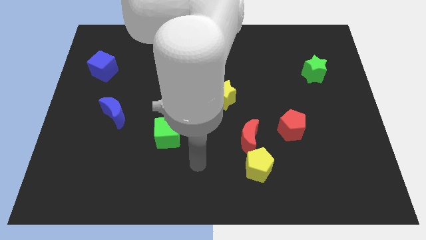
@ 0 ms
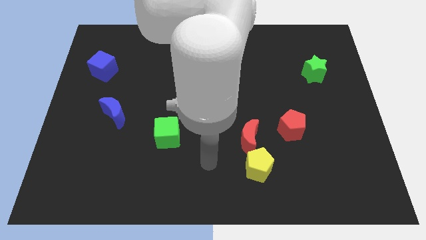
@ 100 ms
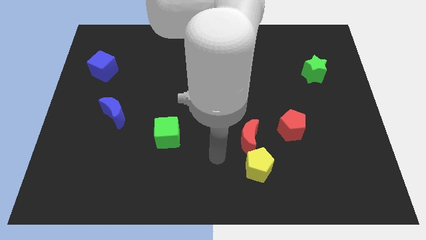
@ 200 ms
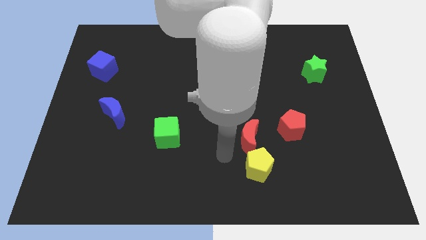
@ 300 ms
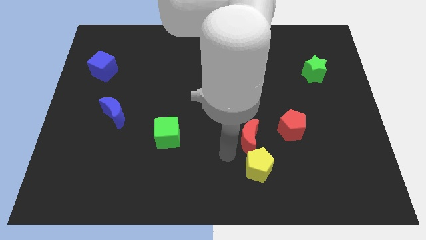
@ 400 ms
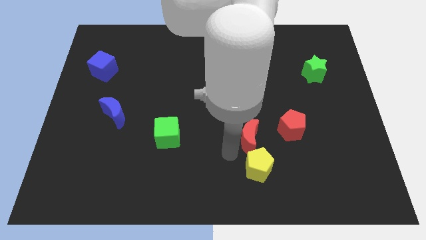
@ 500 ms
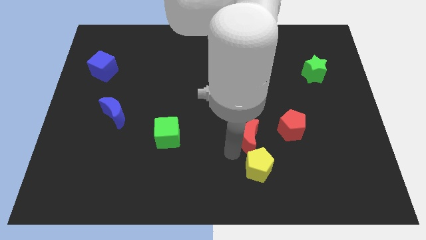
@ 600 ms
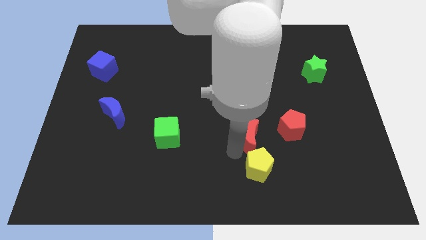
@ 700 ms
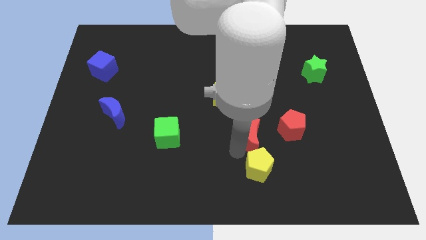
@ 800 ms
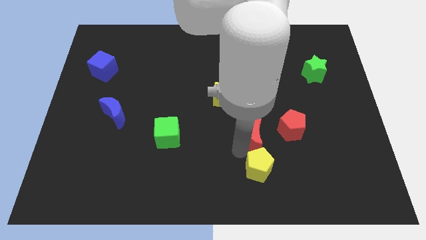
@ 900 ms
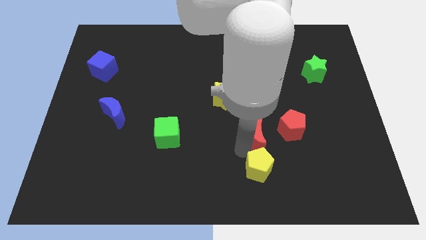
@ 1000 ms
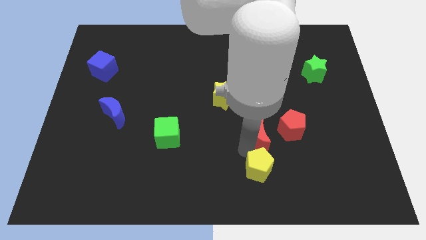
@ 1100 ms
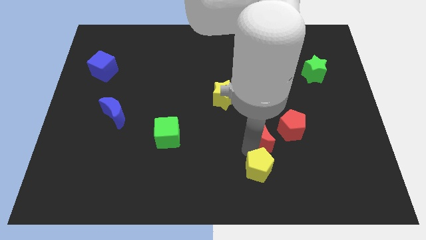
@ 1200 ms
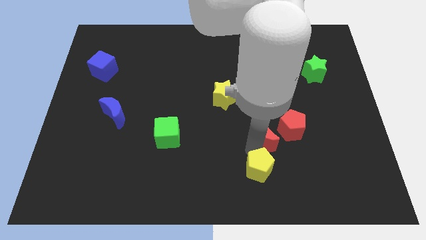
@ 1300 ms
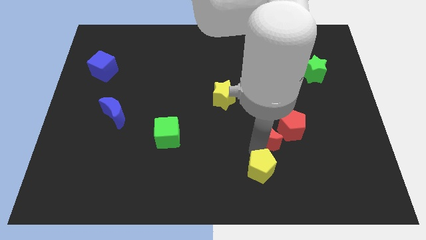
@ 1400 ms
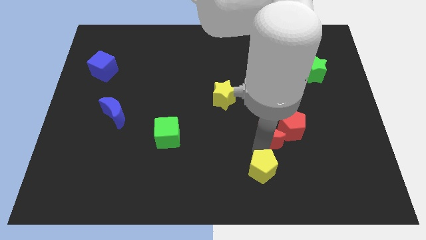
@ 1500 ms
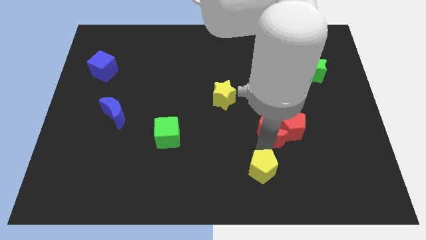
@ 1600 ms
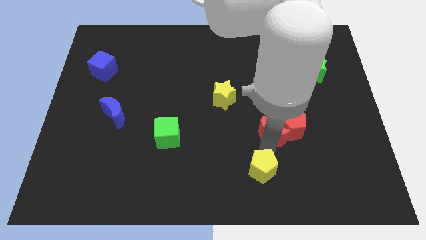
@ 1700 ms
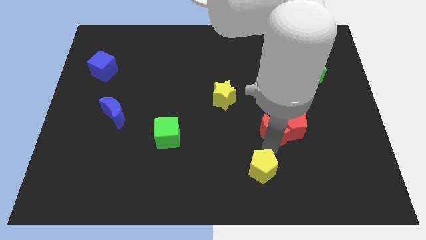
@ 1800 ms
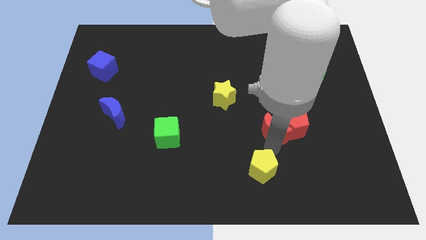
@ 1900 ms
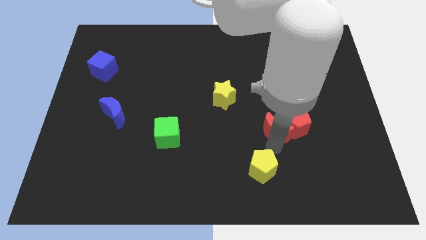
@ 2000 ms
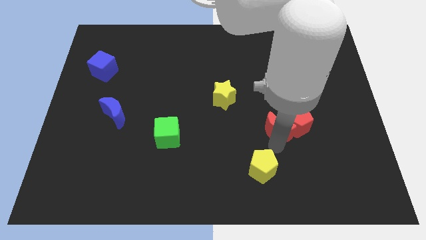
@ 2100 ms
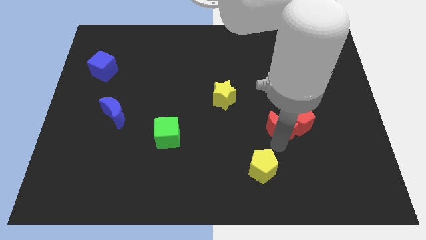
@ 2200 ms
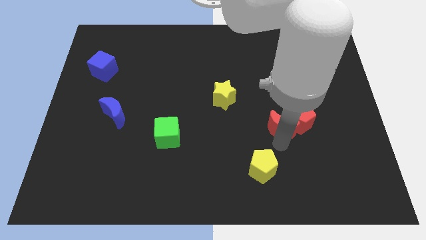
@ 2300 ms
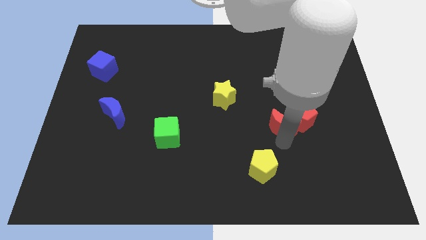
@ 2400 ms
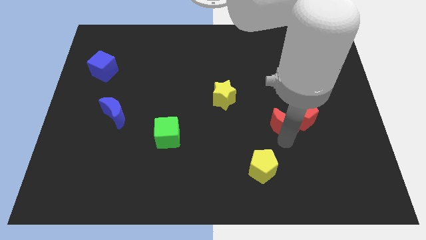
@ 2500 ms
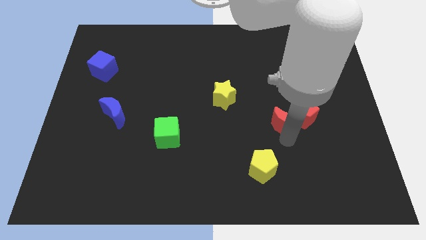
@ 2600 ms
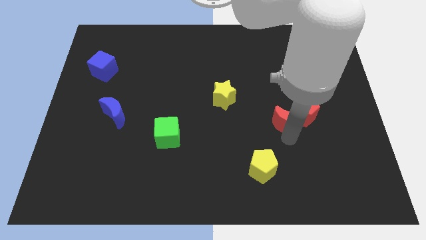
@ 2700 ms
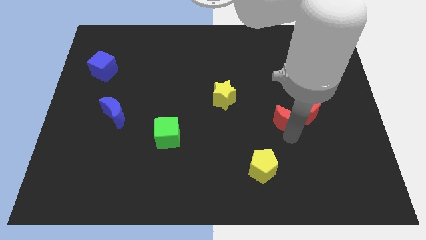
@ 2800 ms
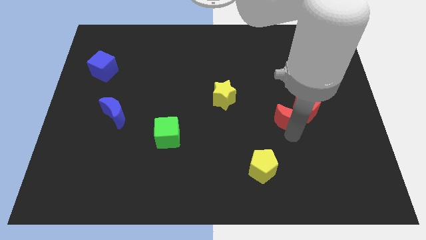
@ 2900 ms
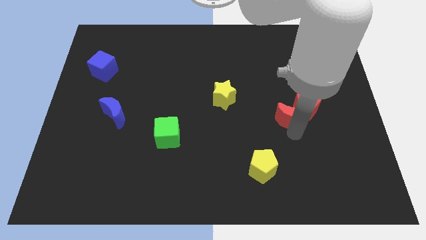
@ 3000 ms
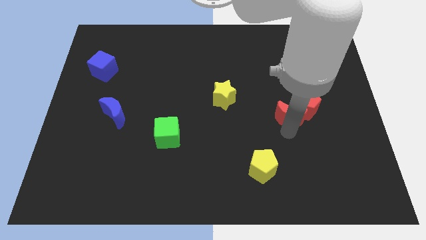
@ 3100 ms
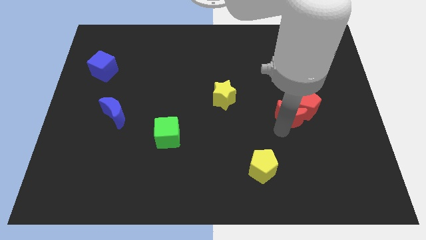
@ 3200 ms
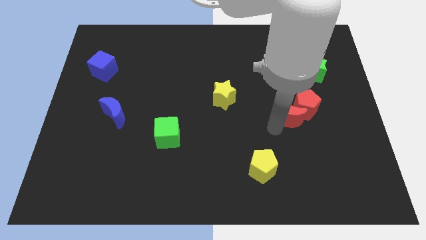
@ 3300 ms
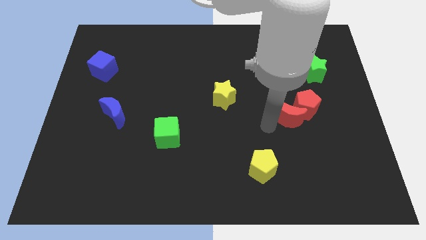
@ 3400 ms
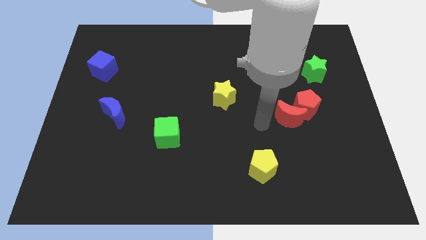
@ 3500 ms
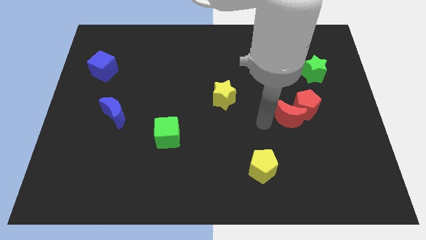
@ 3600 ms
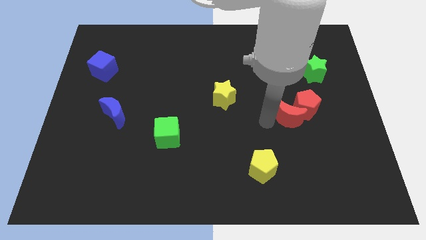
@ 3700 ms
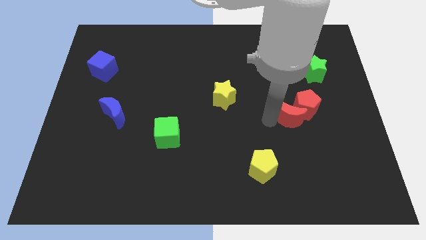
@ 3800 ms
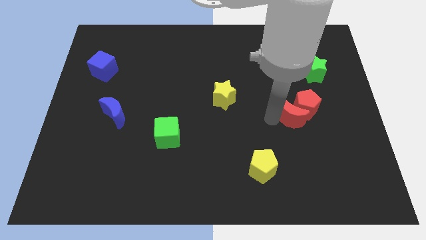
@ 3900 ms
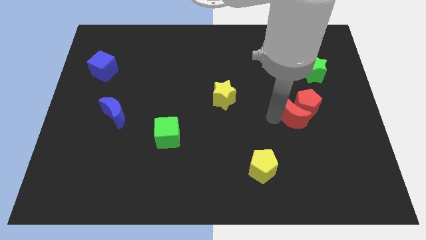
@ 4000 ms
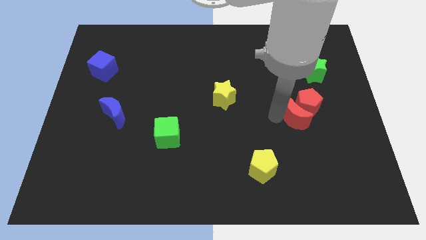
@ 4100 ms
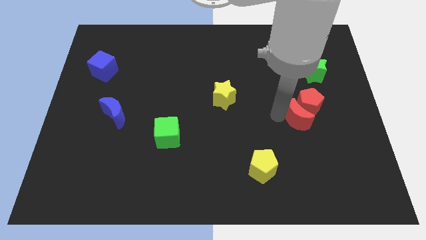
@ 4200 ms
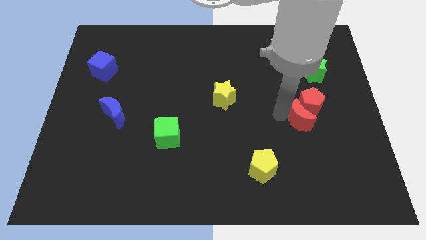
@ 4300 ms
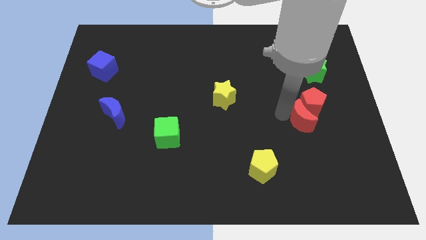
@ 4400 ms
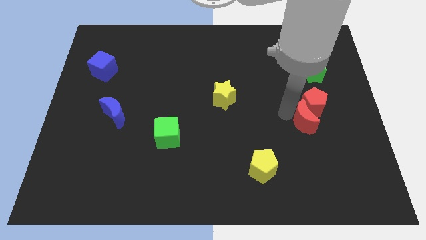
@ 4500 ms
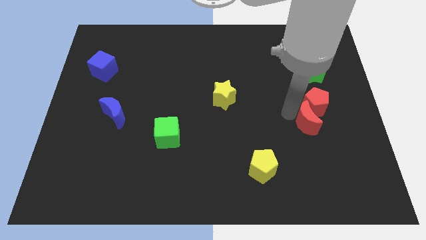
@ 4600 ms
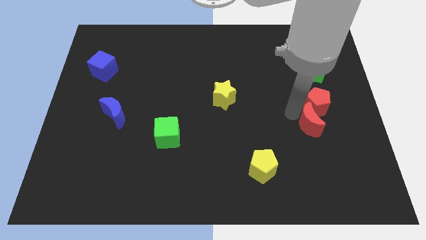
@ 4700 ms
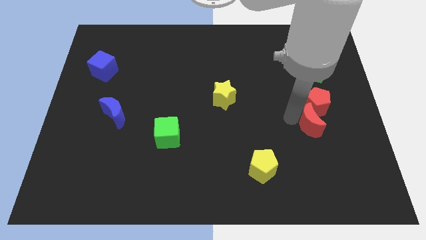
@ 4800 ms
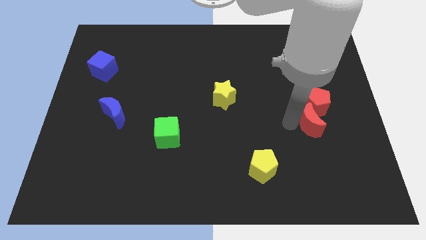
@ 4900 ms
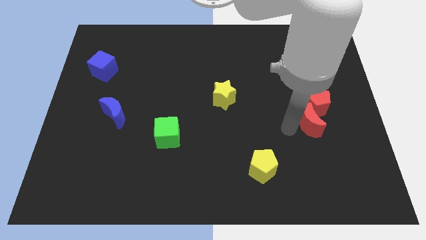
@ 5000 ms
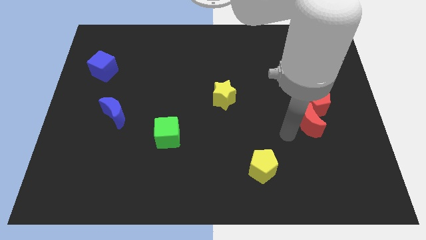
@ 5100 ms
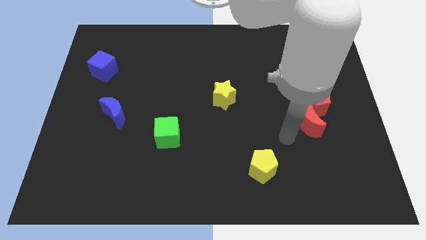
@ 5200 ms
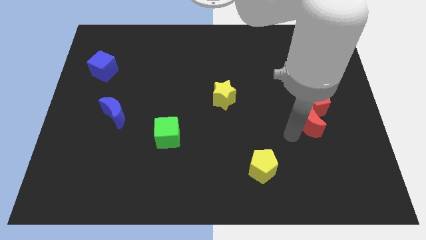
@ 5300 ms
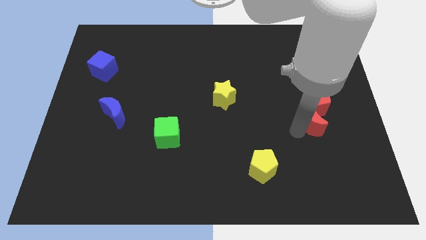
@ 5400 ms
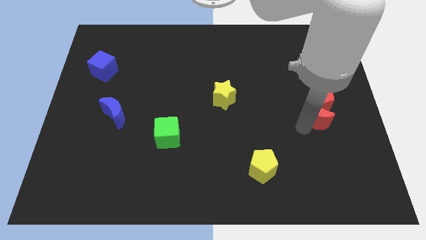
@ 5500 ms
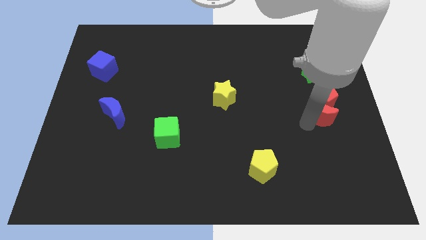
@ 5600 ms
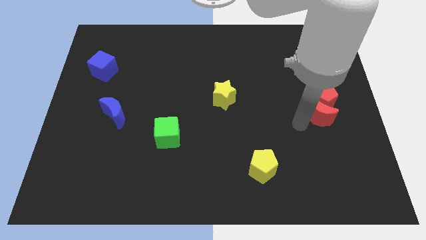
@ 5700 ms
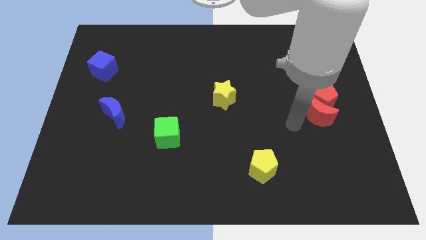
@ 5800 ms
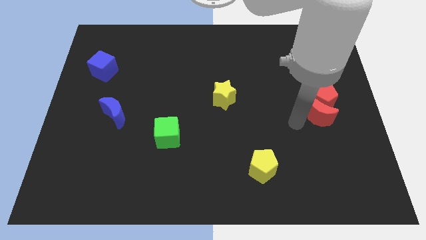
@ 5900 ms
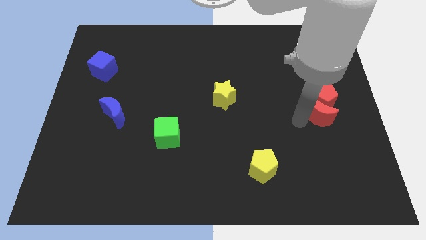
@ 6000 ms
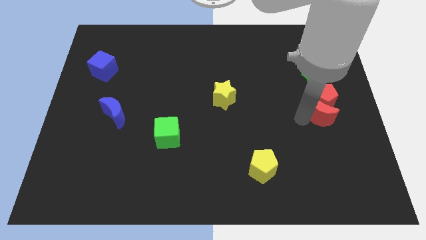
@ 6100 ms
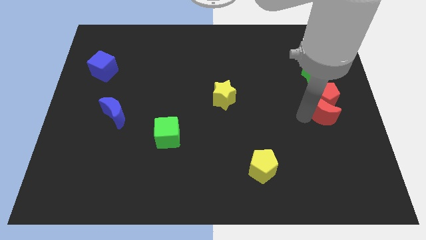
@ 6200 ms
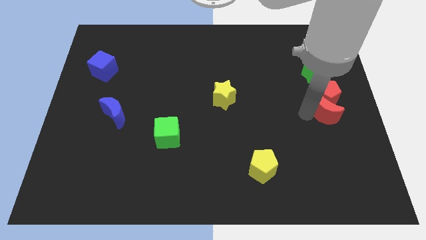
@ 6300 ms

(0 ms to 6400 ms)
put the red moon to the right side
